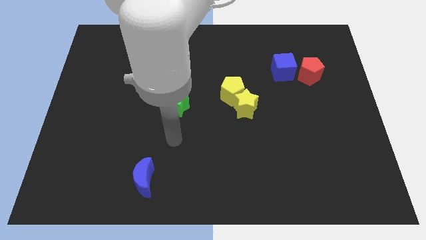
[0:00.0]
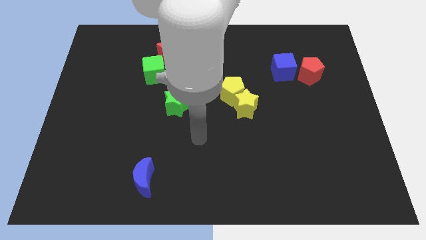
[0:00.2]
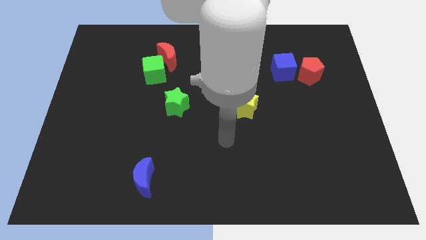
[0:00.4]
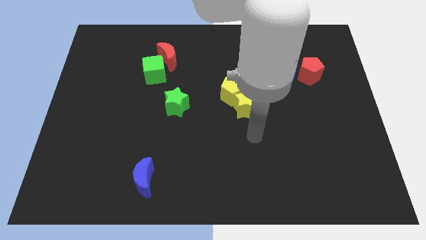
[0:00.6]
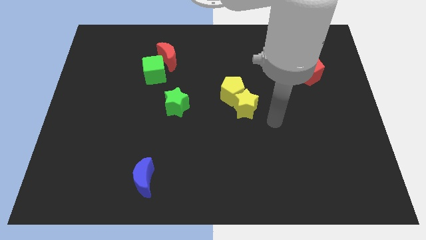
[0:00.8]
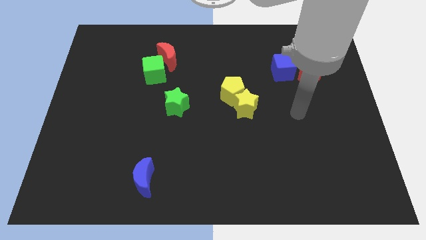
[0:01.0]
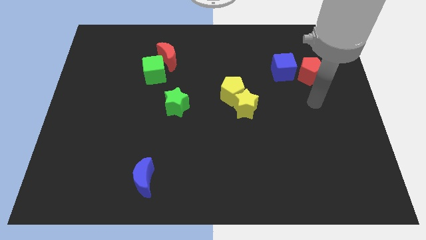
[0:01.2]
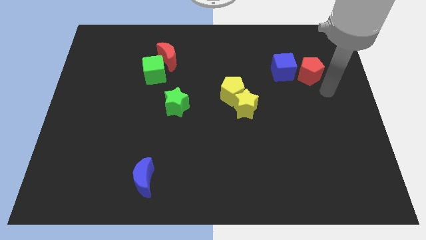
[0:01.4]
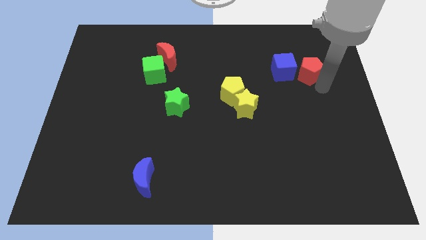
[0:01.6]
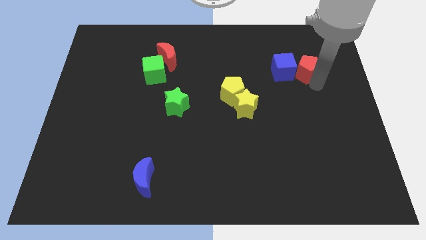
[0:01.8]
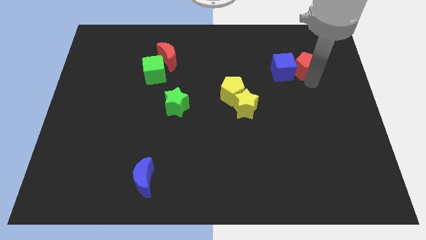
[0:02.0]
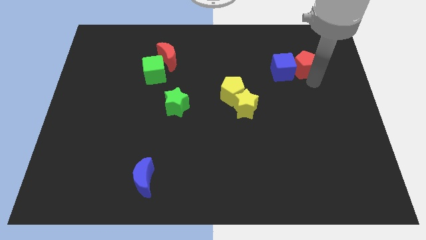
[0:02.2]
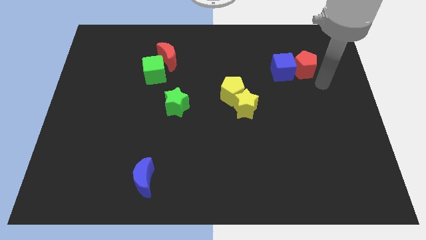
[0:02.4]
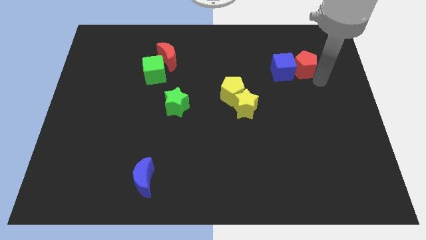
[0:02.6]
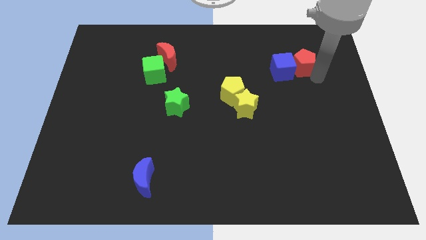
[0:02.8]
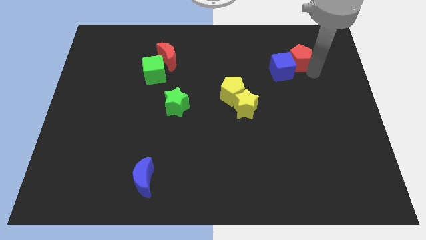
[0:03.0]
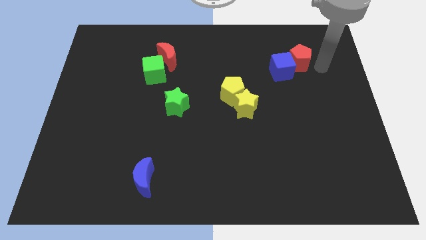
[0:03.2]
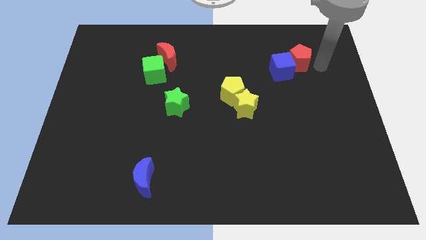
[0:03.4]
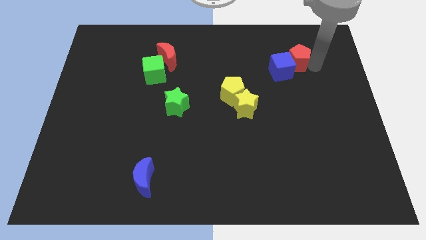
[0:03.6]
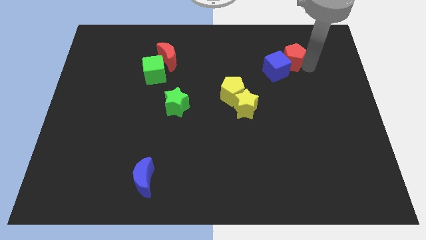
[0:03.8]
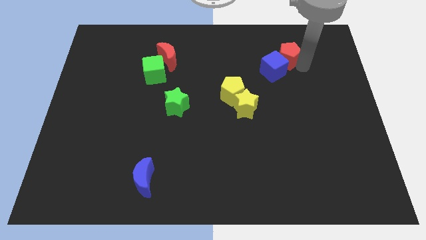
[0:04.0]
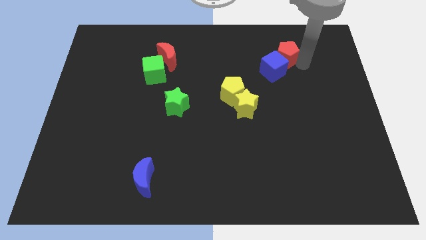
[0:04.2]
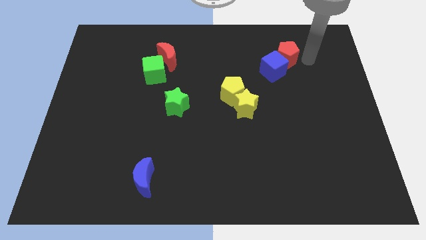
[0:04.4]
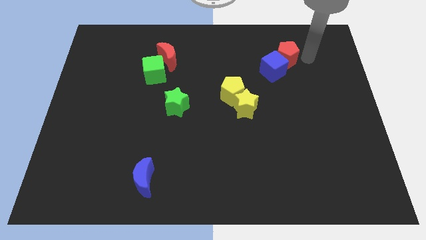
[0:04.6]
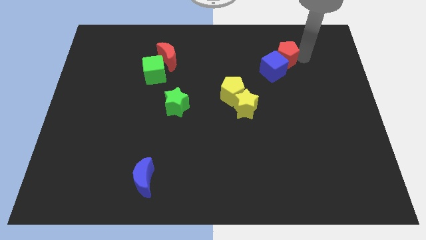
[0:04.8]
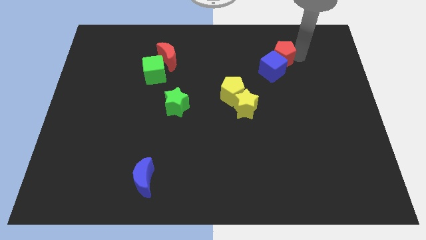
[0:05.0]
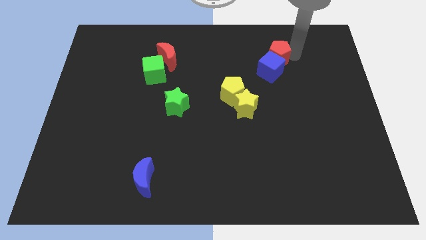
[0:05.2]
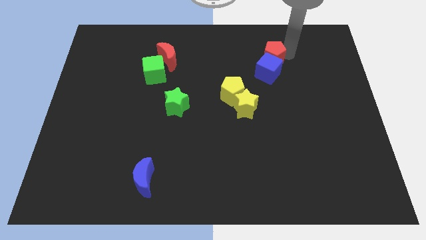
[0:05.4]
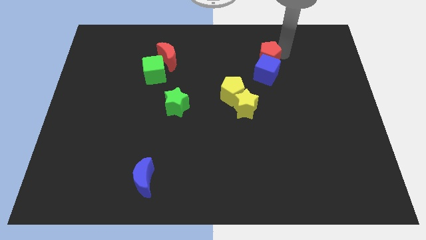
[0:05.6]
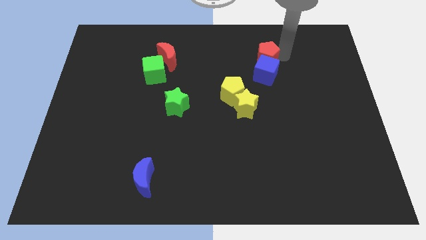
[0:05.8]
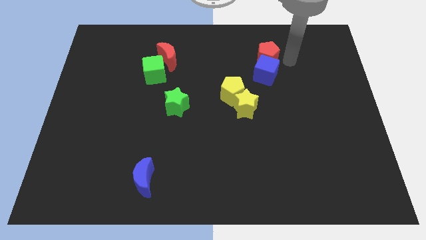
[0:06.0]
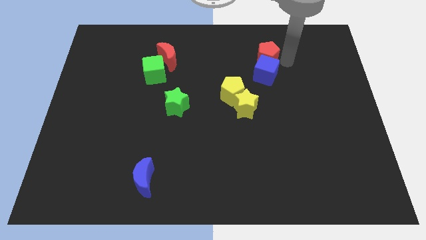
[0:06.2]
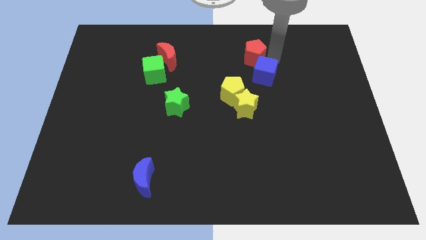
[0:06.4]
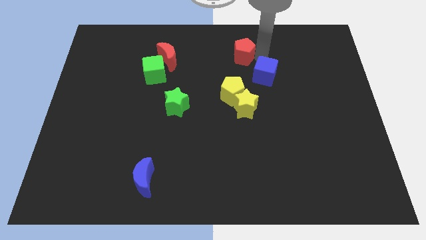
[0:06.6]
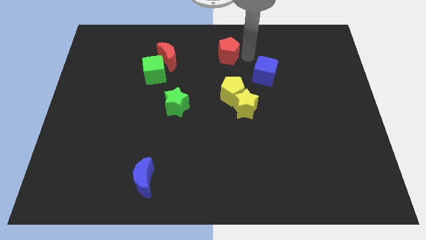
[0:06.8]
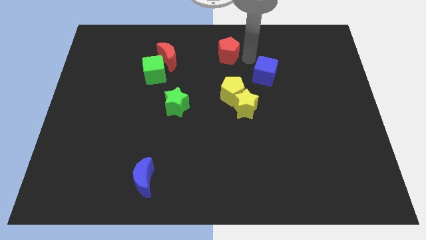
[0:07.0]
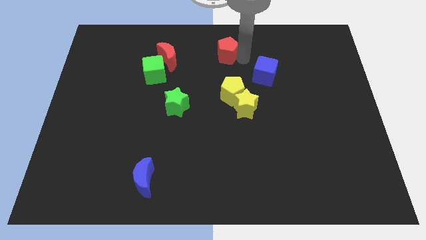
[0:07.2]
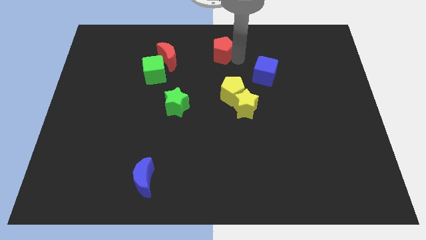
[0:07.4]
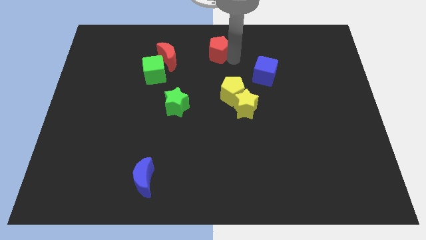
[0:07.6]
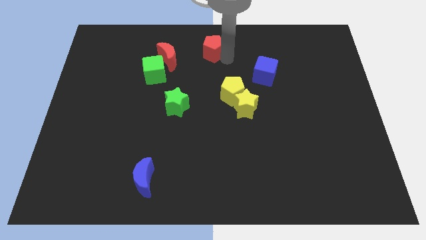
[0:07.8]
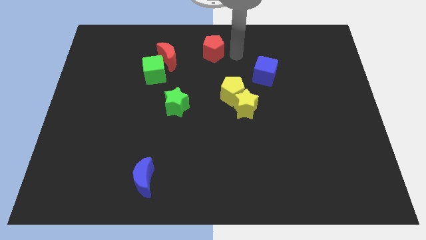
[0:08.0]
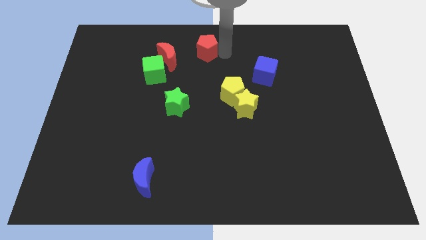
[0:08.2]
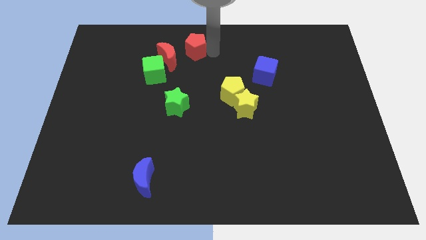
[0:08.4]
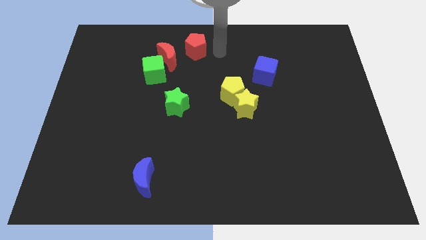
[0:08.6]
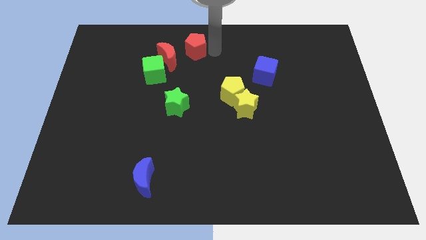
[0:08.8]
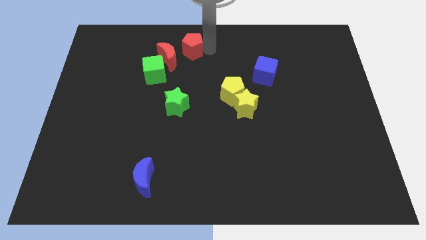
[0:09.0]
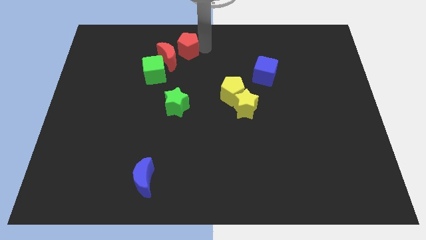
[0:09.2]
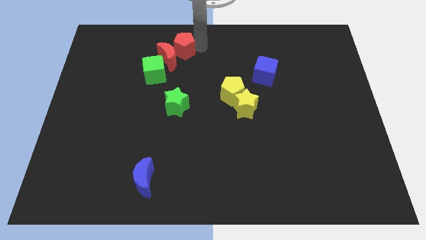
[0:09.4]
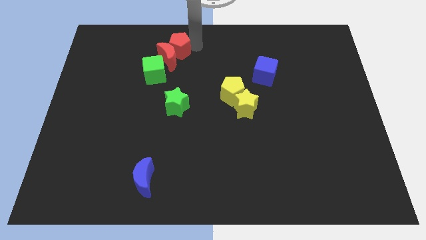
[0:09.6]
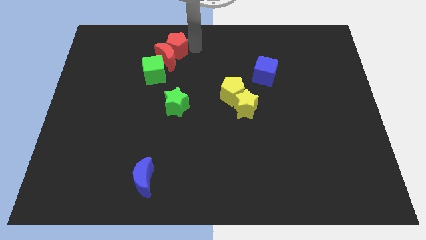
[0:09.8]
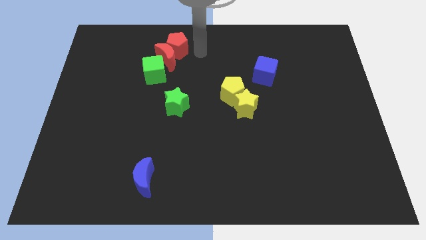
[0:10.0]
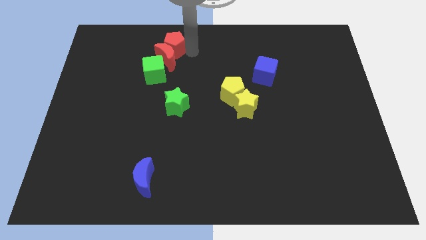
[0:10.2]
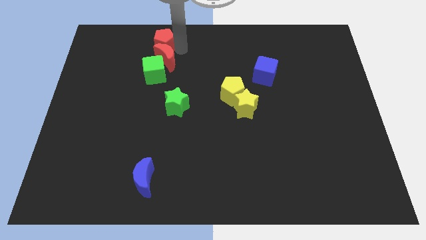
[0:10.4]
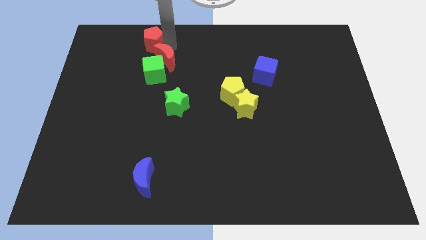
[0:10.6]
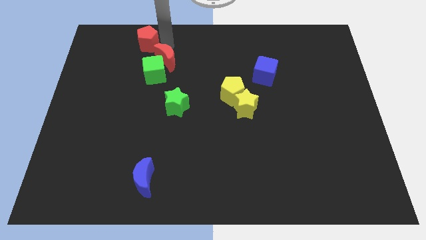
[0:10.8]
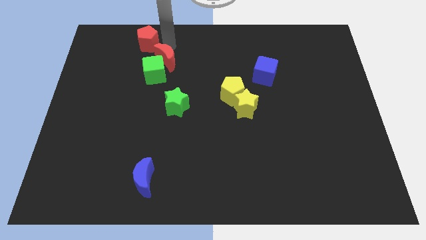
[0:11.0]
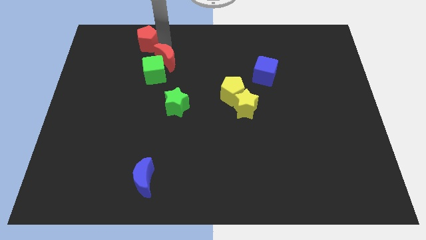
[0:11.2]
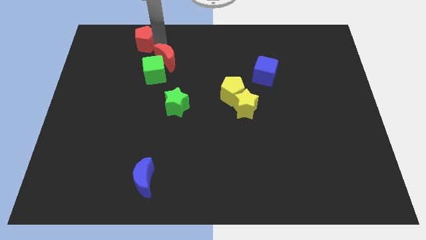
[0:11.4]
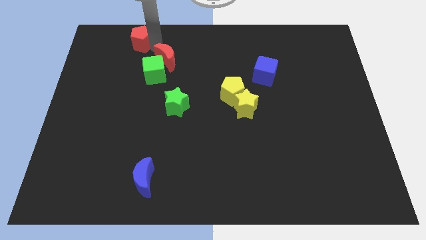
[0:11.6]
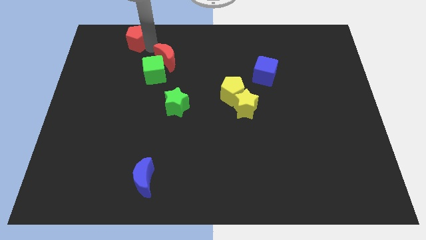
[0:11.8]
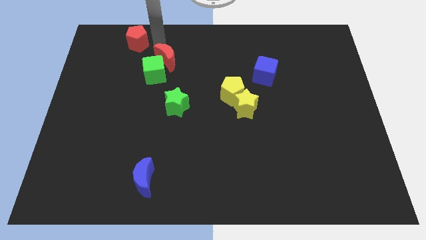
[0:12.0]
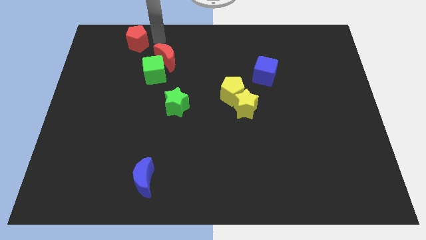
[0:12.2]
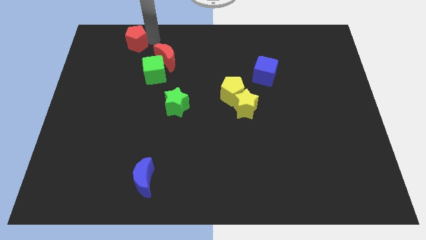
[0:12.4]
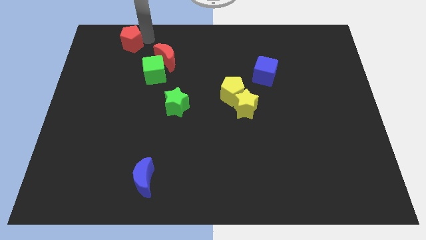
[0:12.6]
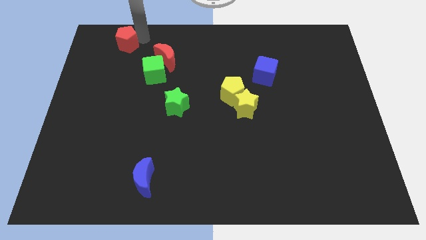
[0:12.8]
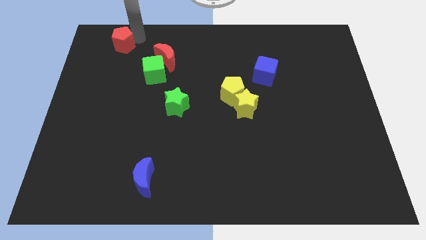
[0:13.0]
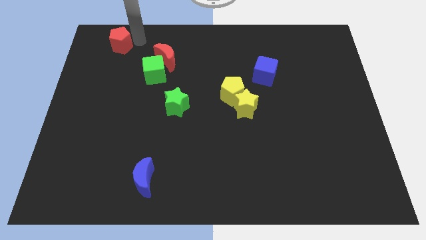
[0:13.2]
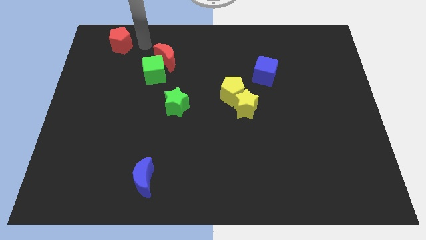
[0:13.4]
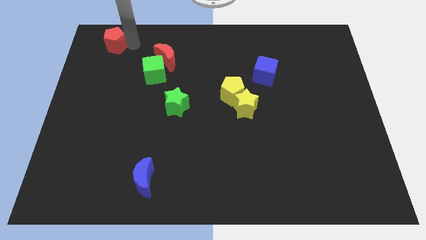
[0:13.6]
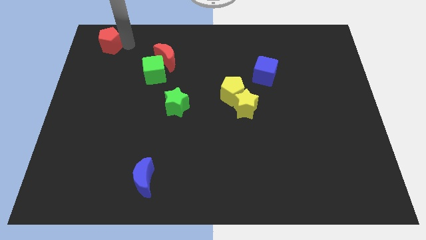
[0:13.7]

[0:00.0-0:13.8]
slide the red pentagon to the top left corner
